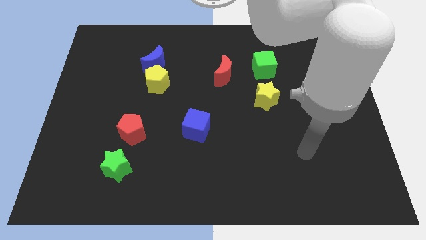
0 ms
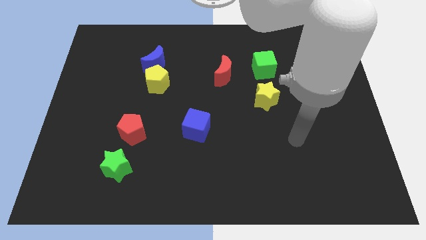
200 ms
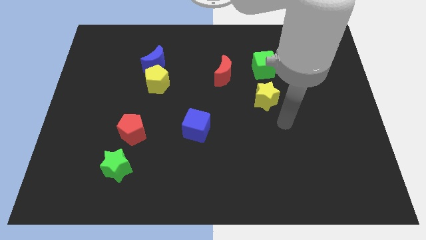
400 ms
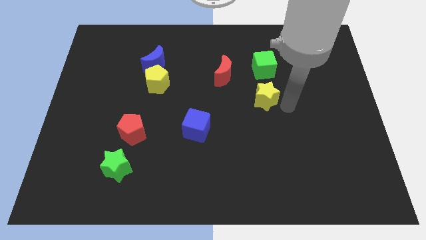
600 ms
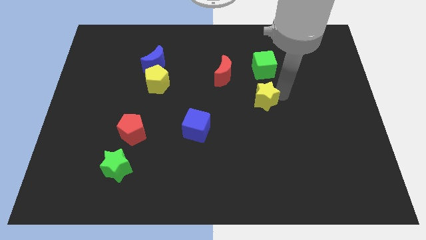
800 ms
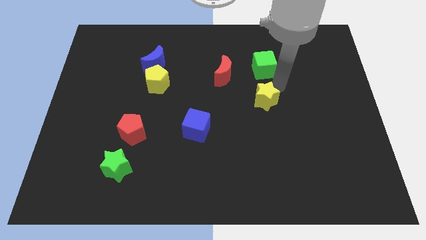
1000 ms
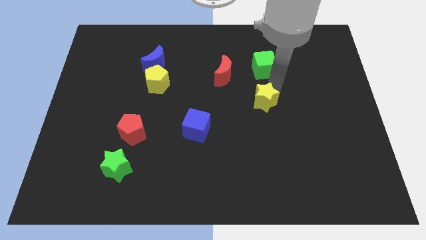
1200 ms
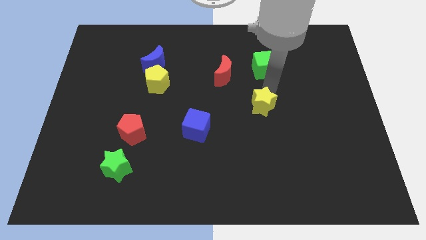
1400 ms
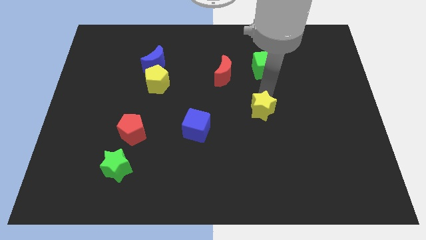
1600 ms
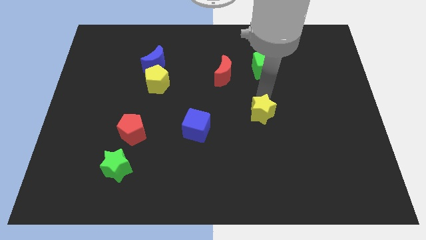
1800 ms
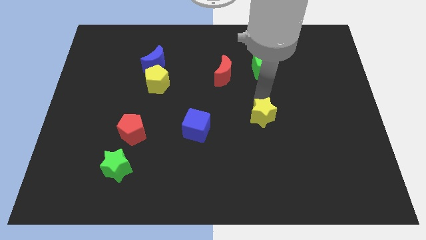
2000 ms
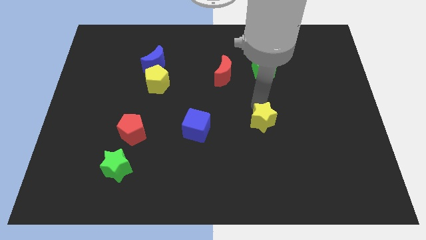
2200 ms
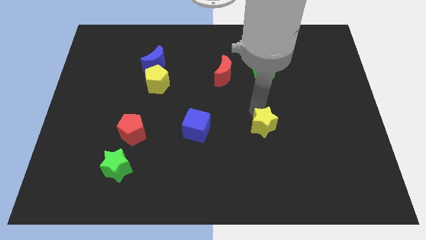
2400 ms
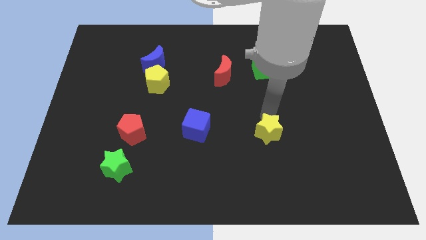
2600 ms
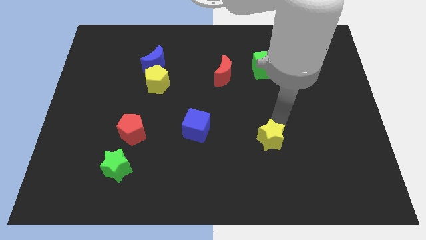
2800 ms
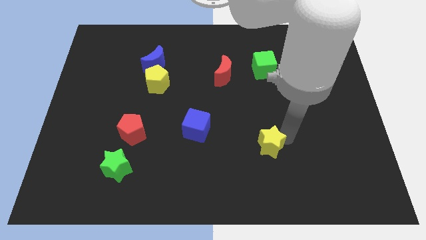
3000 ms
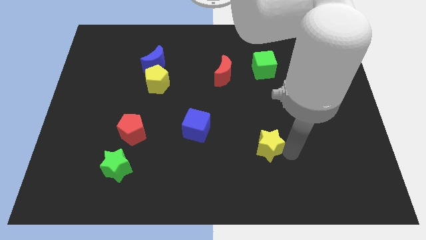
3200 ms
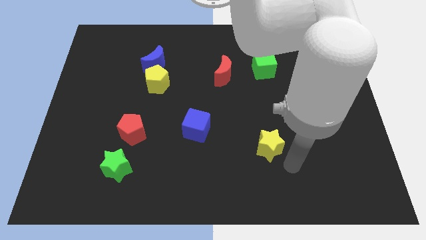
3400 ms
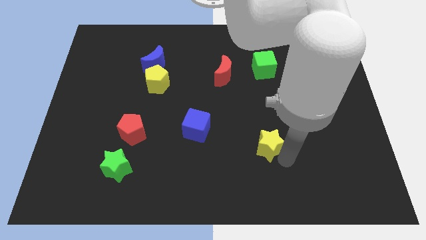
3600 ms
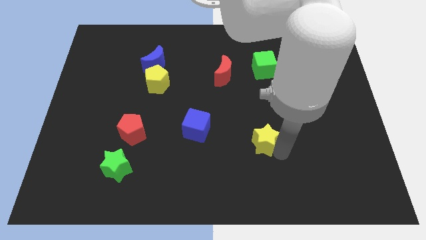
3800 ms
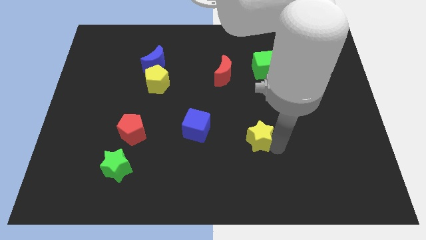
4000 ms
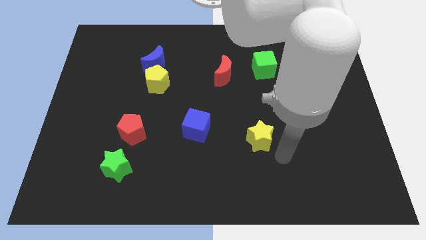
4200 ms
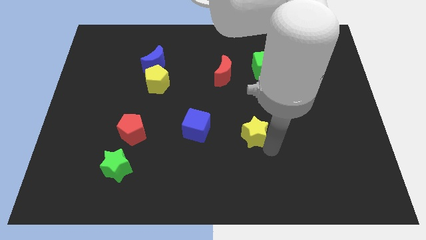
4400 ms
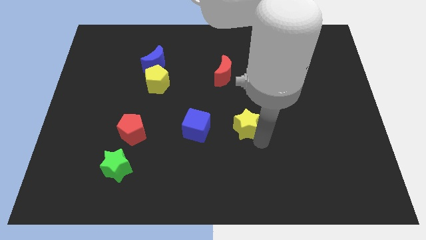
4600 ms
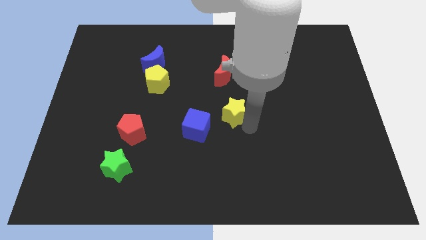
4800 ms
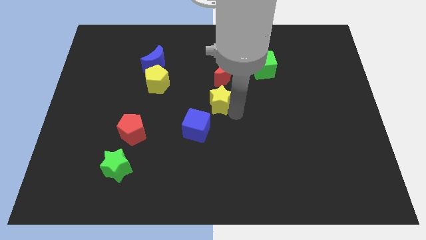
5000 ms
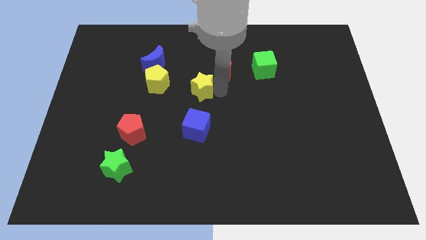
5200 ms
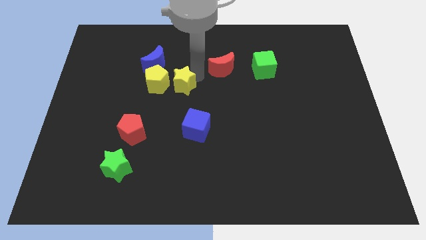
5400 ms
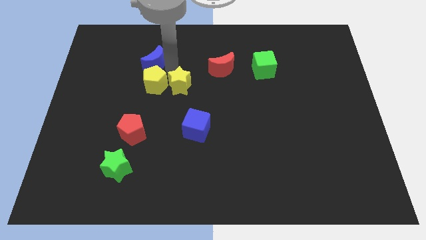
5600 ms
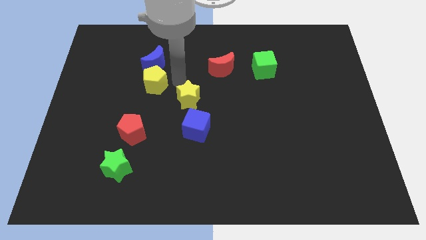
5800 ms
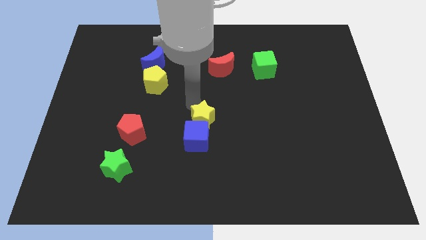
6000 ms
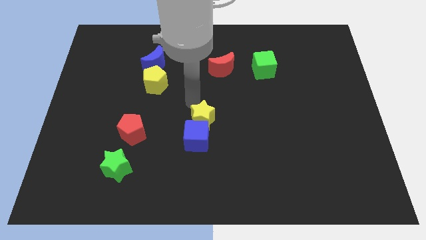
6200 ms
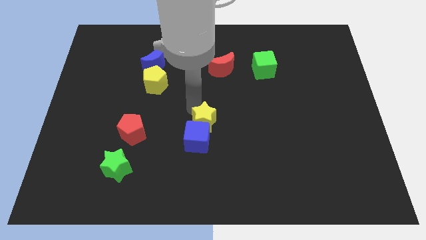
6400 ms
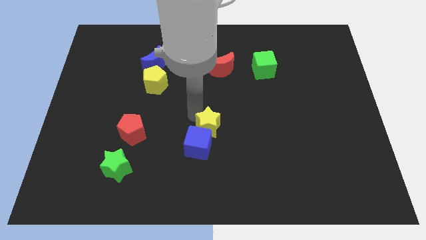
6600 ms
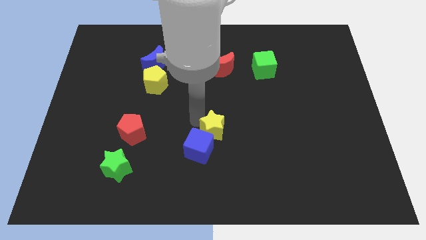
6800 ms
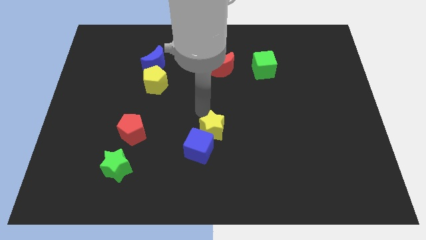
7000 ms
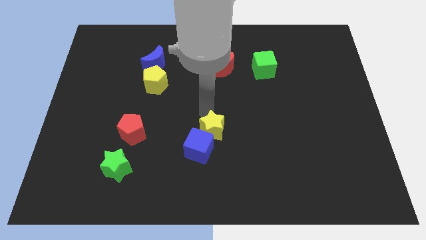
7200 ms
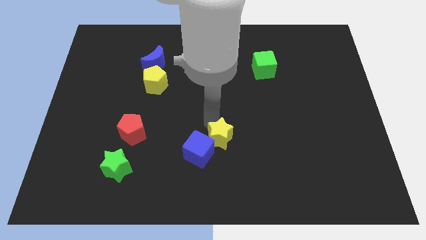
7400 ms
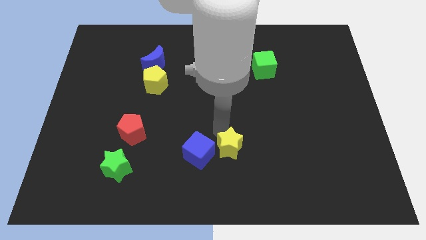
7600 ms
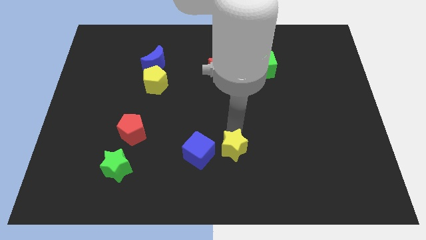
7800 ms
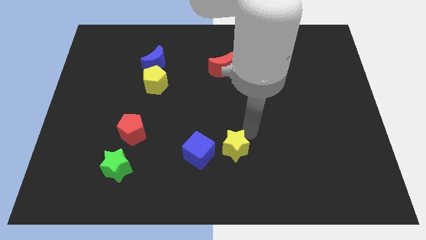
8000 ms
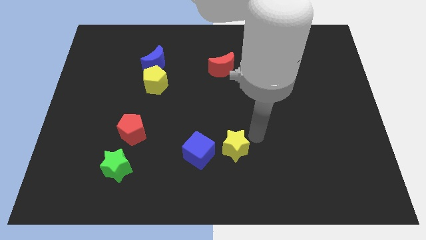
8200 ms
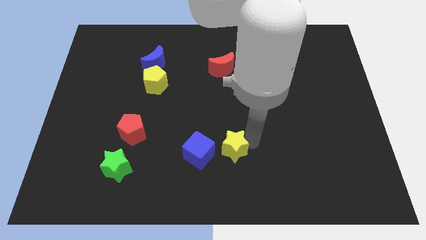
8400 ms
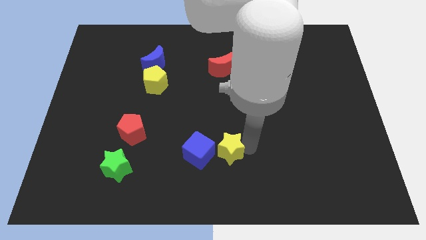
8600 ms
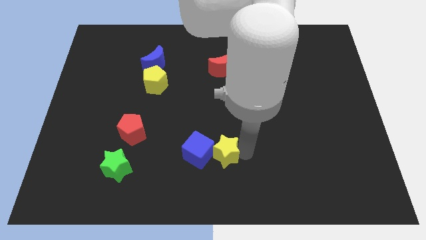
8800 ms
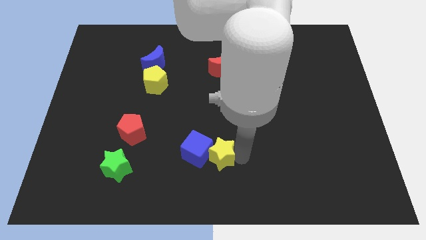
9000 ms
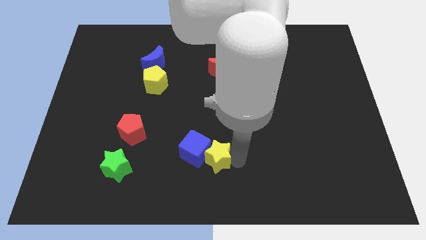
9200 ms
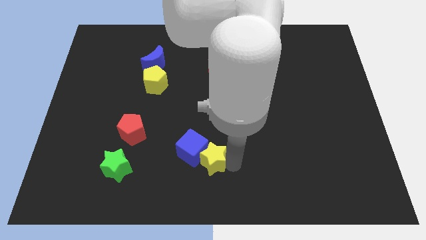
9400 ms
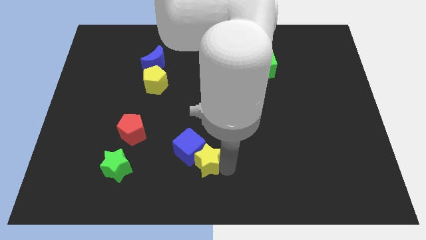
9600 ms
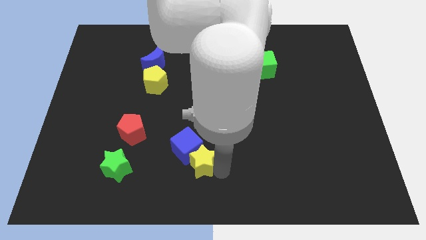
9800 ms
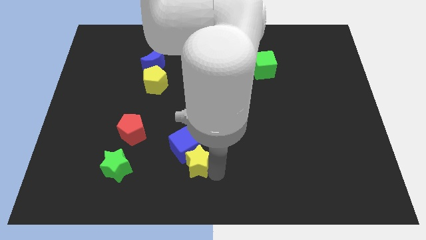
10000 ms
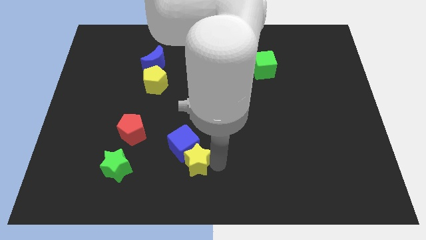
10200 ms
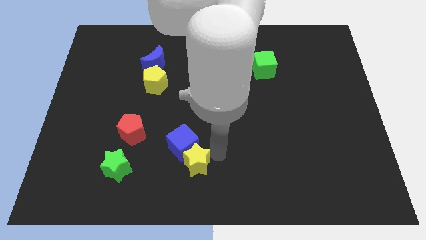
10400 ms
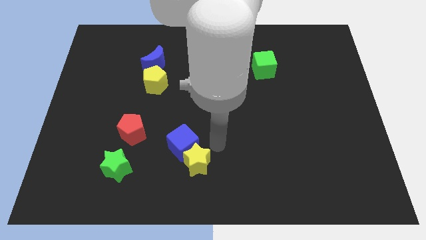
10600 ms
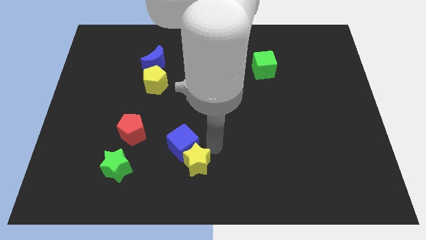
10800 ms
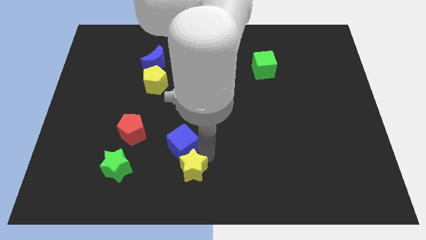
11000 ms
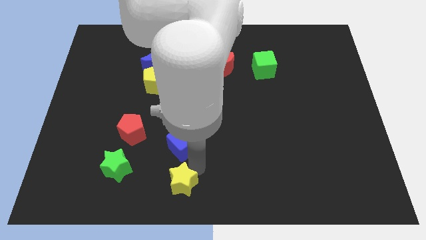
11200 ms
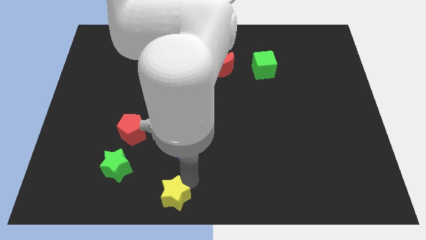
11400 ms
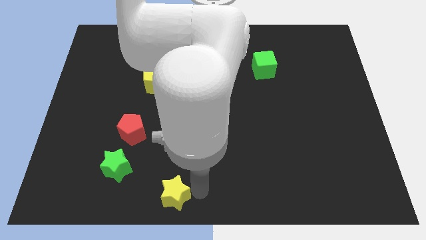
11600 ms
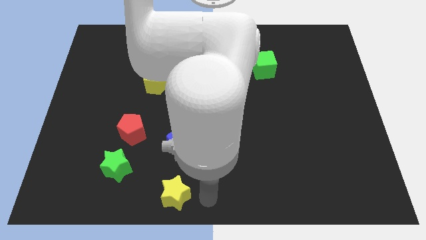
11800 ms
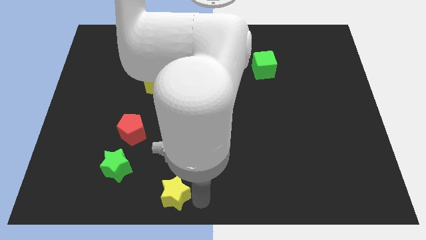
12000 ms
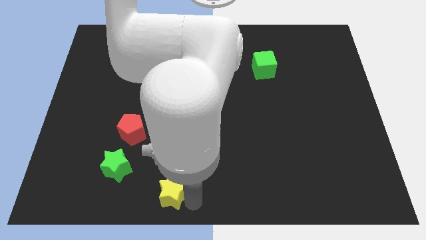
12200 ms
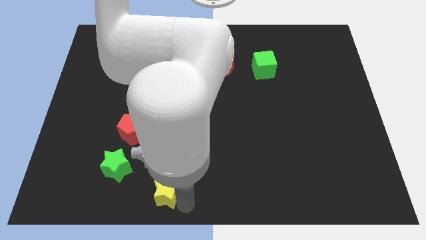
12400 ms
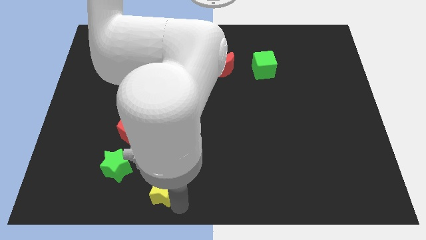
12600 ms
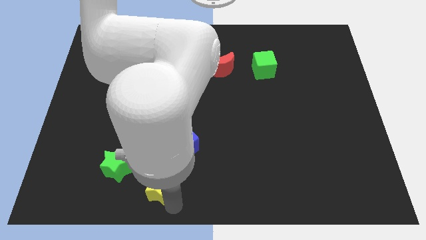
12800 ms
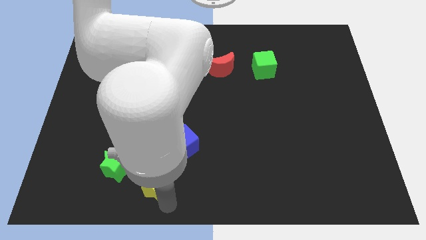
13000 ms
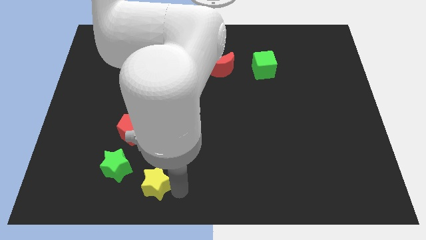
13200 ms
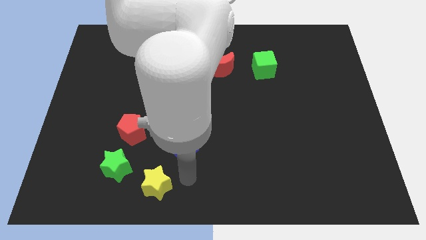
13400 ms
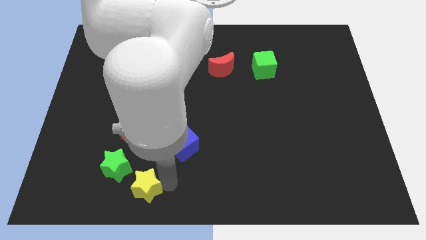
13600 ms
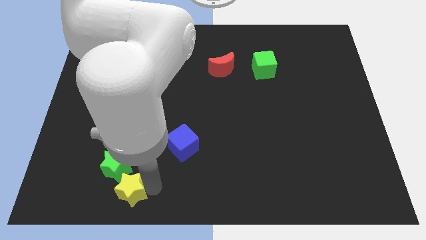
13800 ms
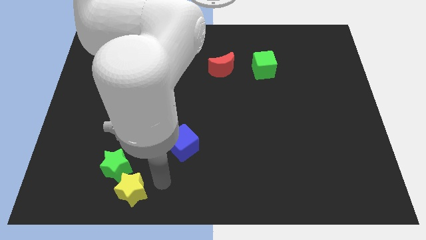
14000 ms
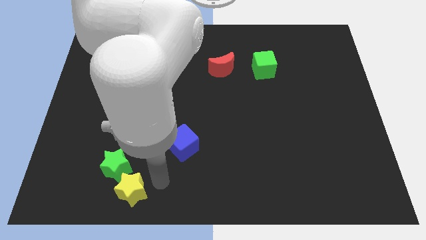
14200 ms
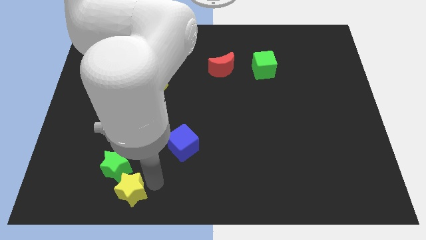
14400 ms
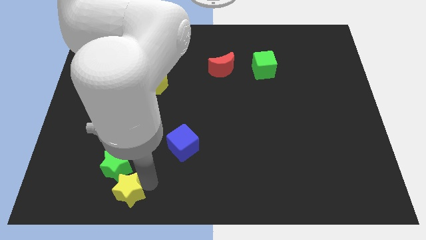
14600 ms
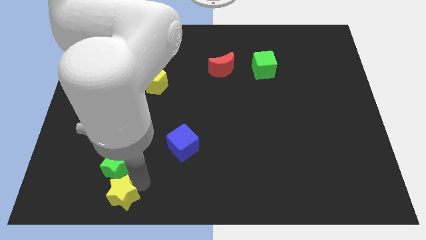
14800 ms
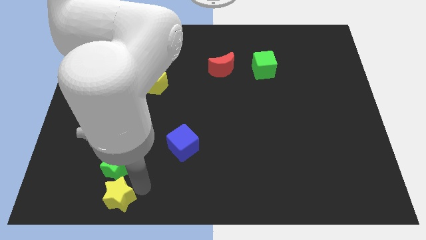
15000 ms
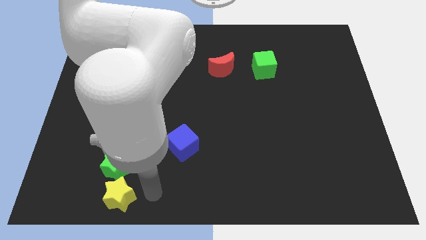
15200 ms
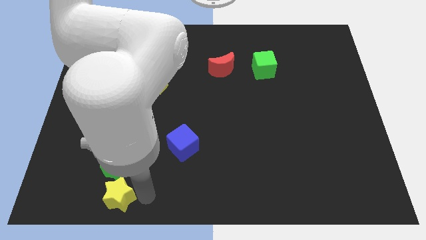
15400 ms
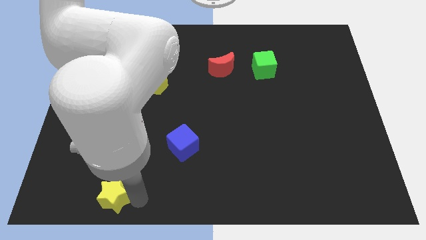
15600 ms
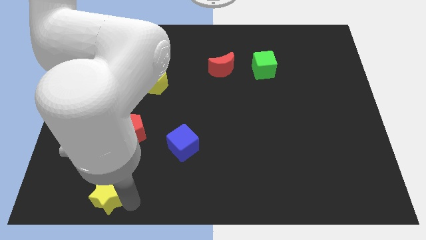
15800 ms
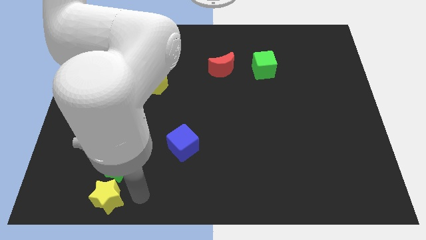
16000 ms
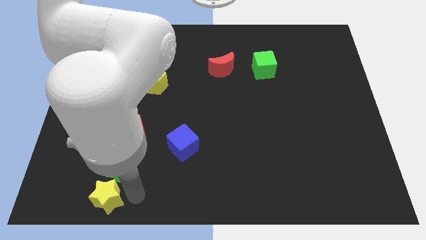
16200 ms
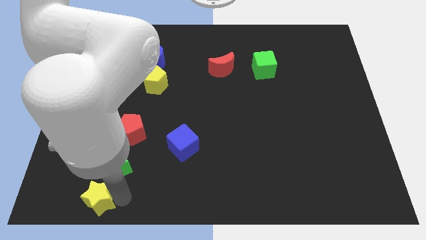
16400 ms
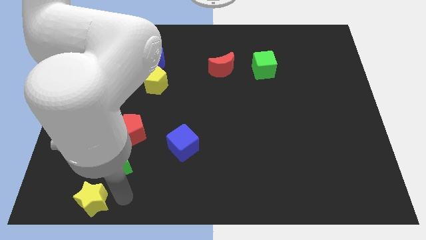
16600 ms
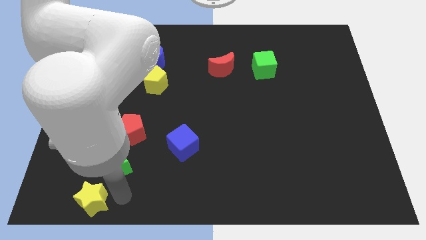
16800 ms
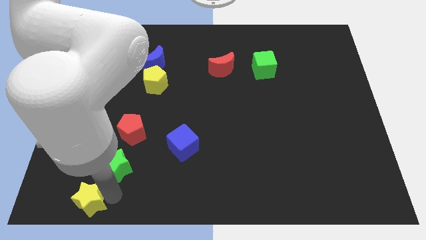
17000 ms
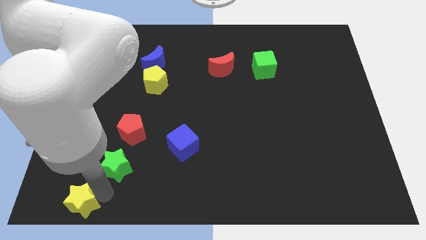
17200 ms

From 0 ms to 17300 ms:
put the yellow star to the lower left corner
